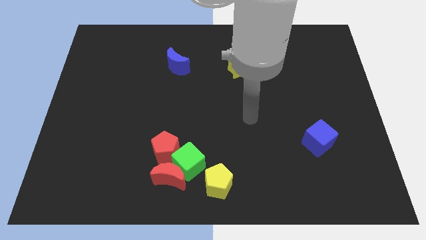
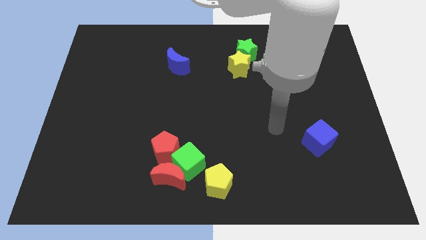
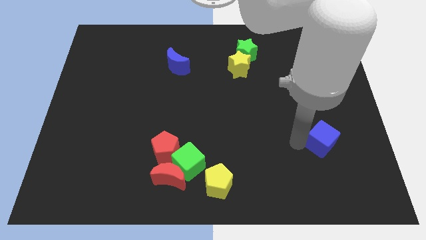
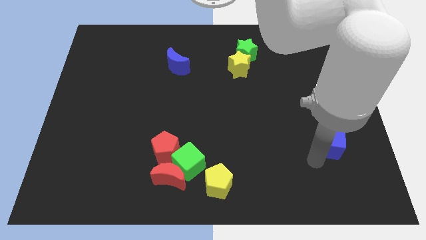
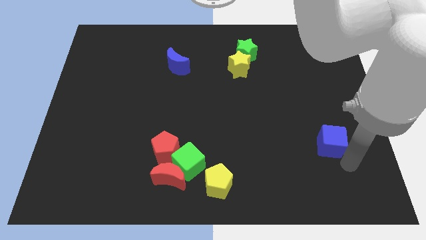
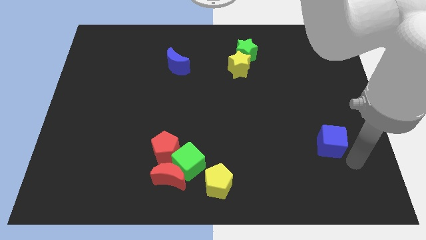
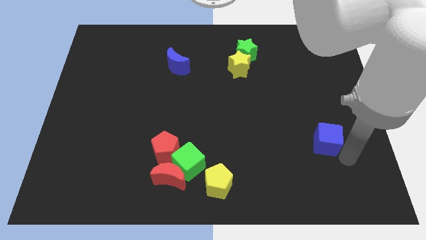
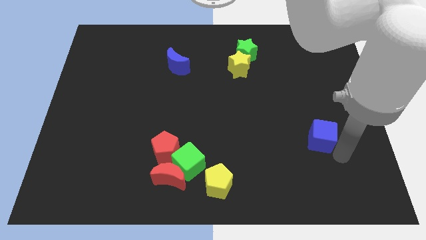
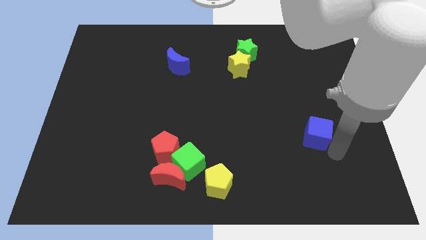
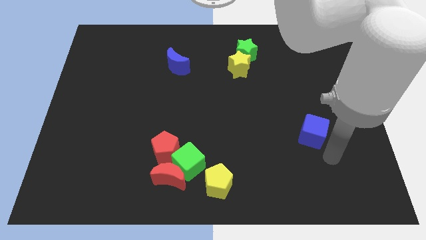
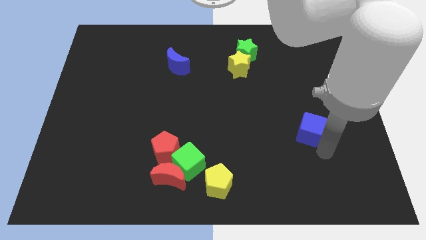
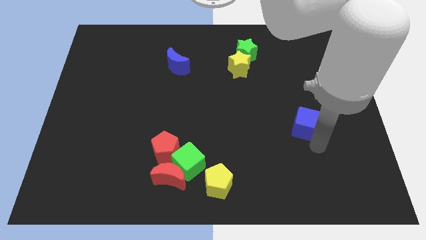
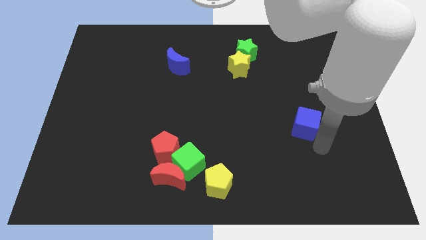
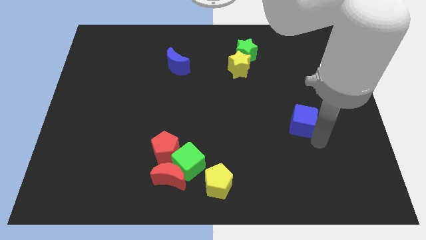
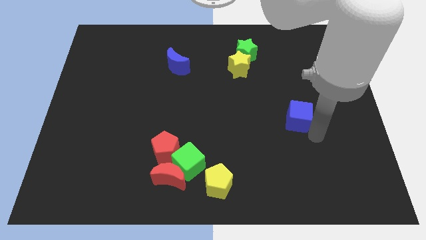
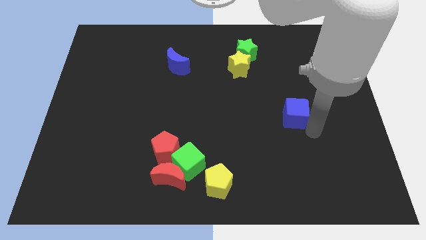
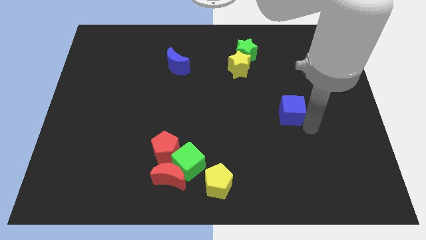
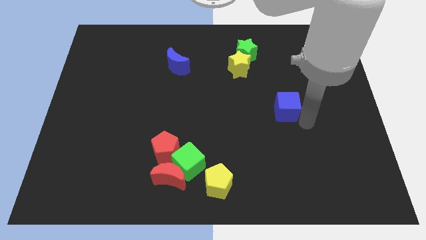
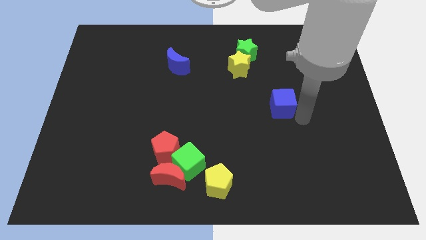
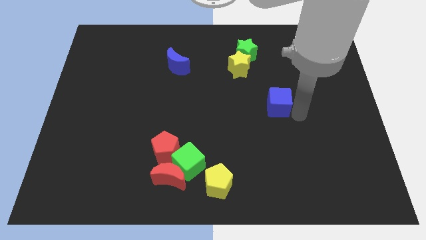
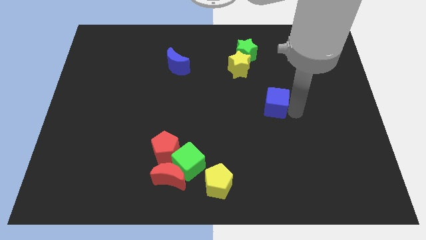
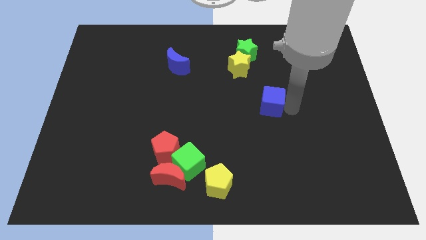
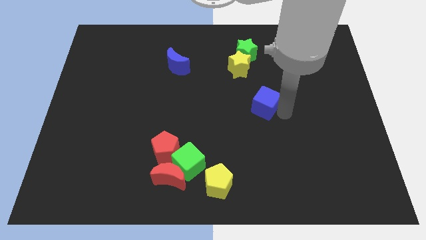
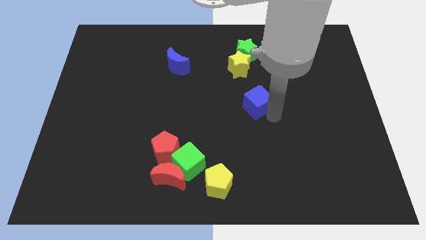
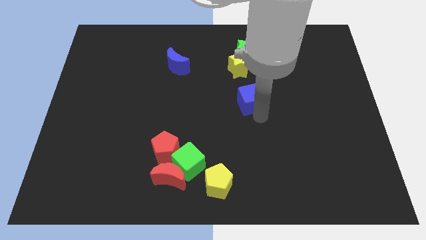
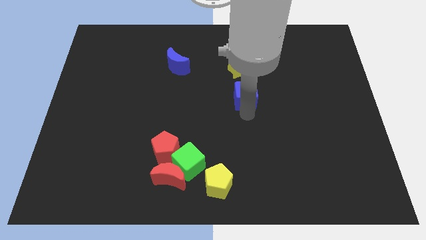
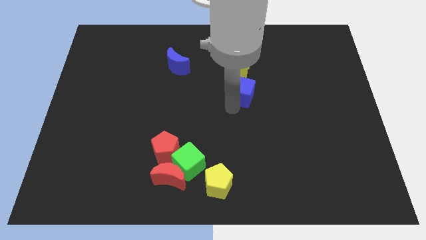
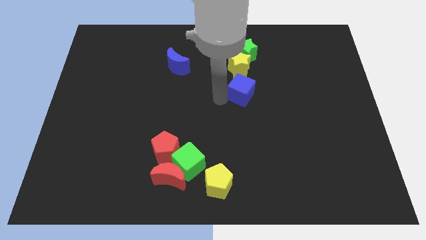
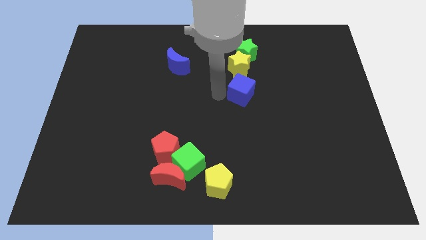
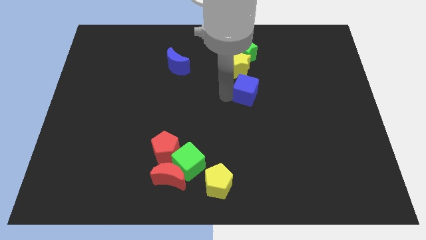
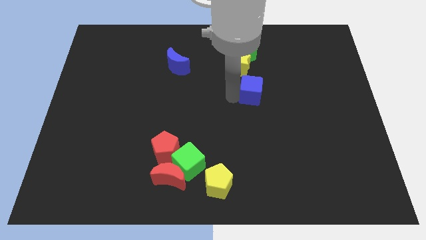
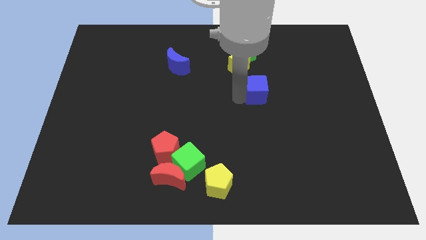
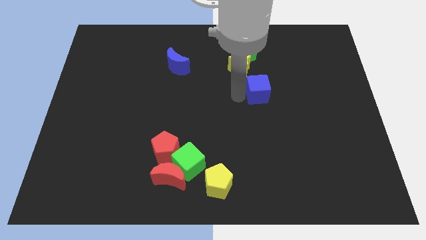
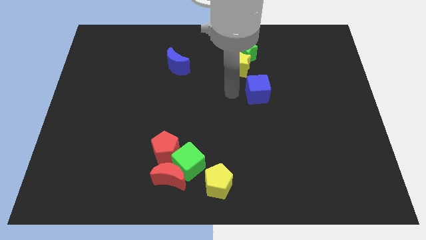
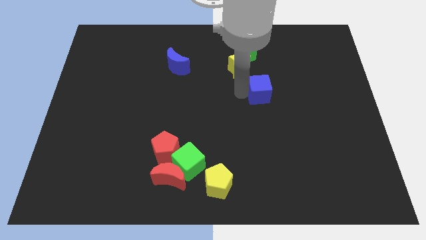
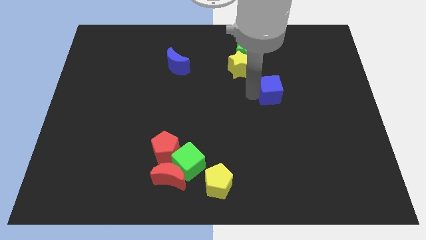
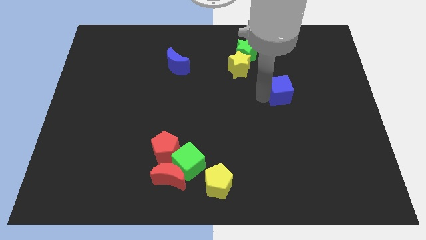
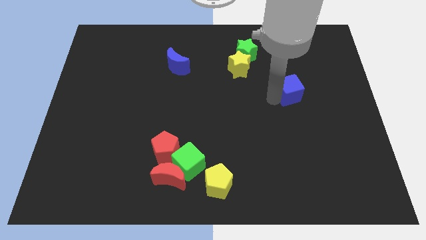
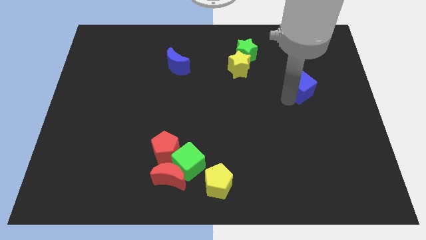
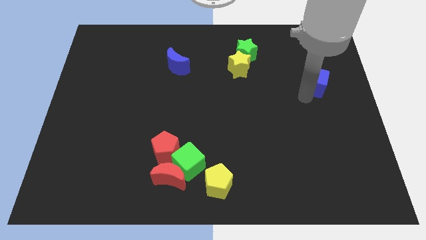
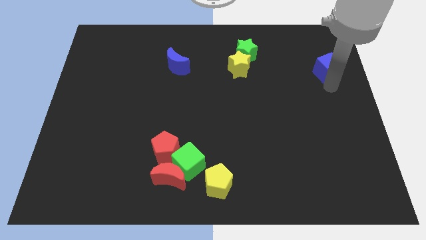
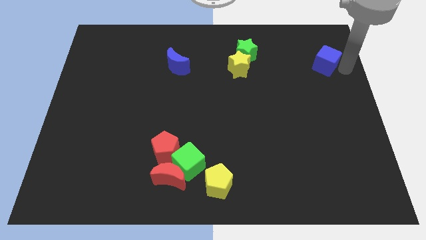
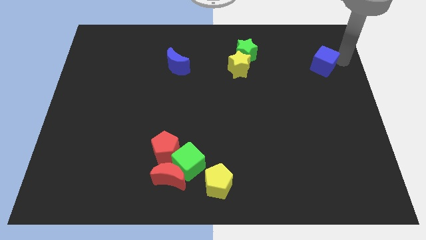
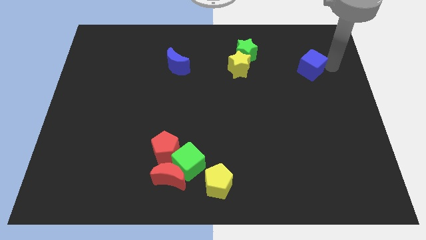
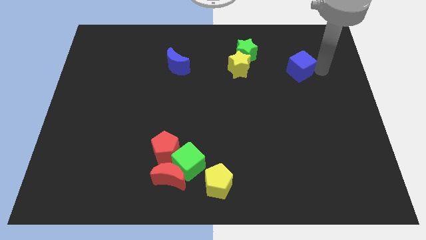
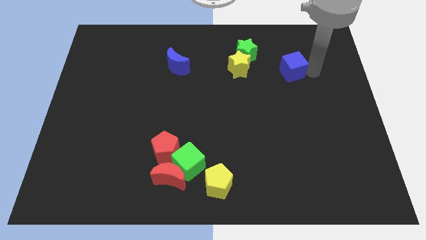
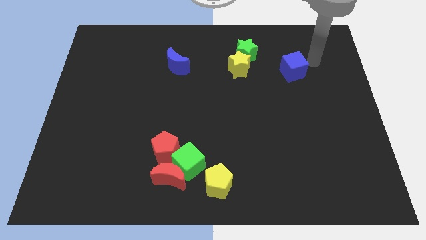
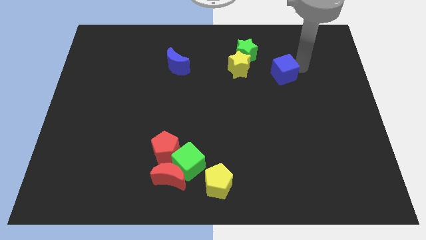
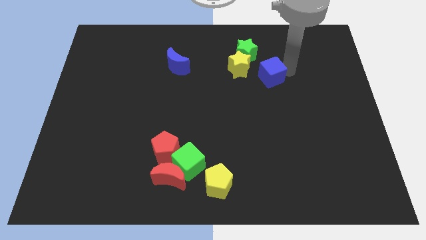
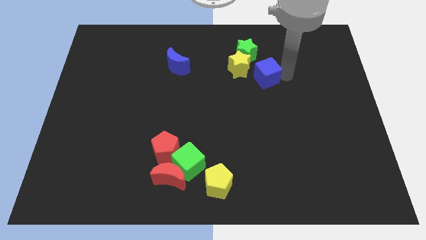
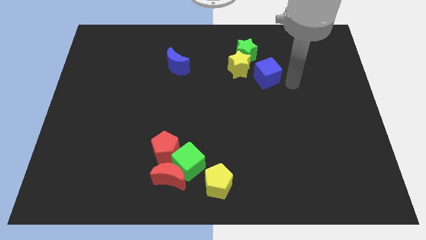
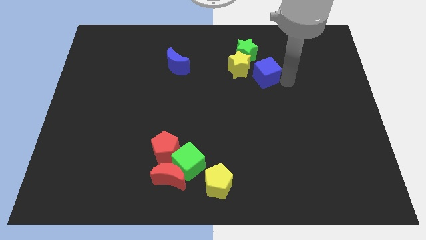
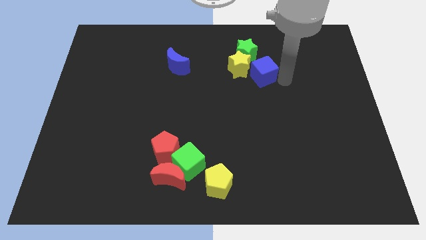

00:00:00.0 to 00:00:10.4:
put the blue cube next to the yellow star

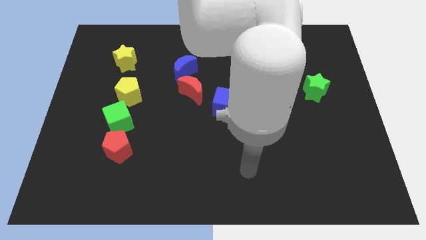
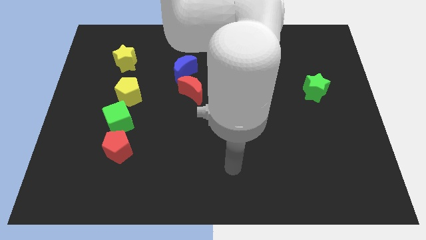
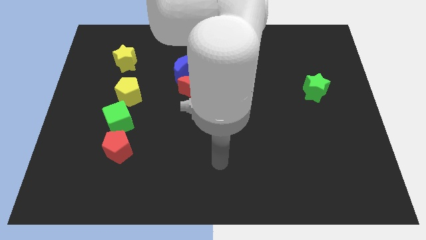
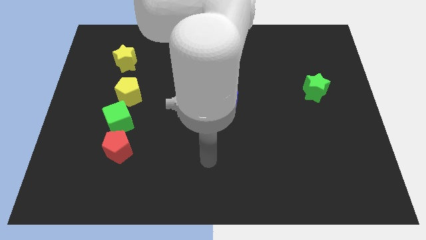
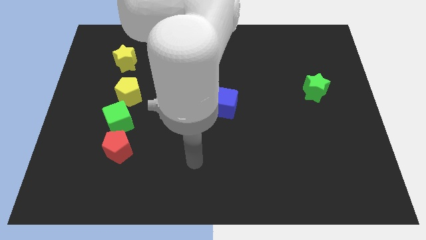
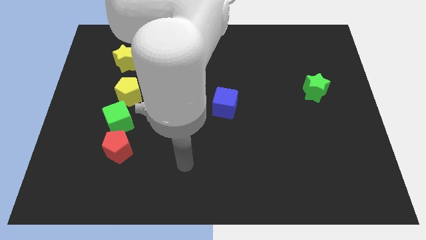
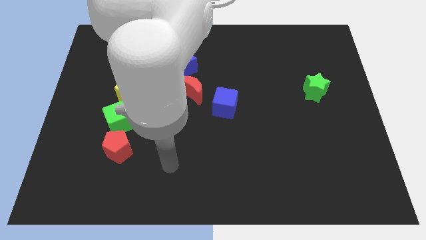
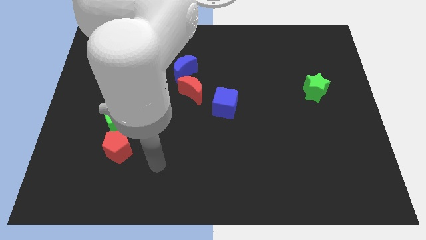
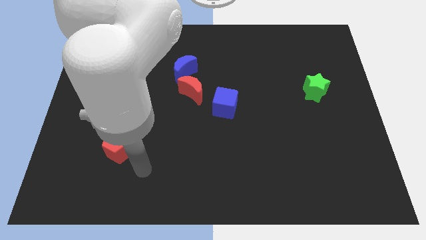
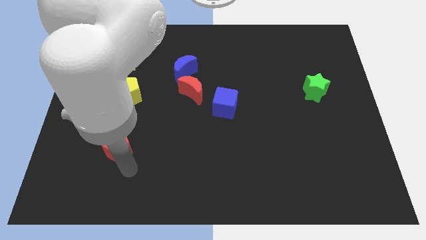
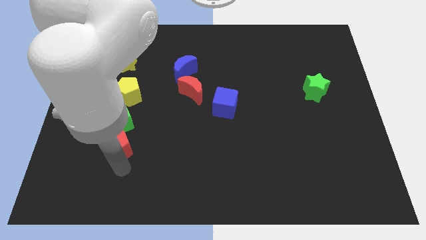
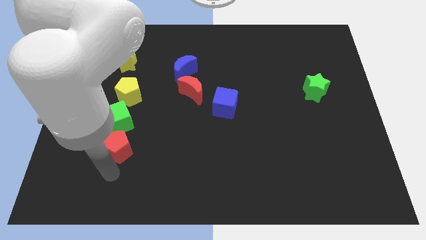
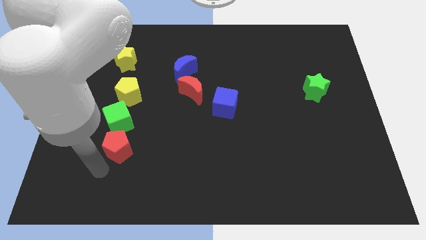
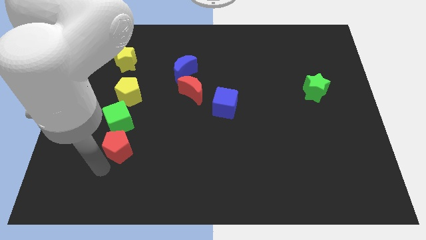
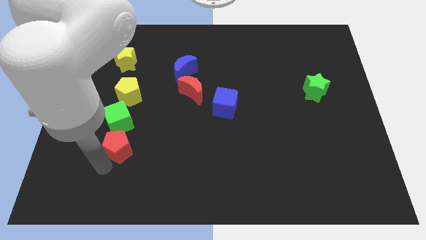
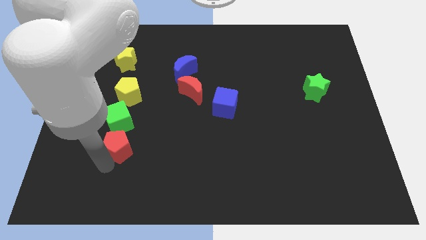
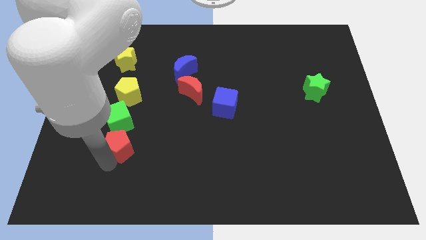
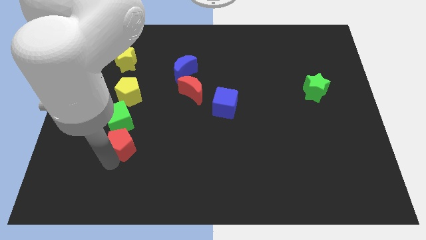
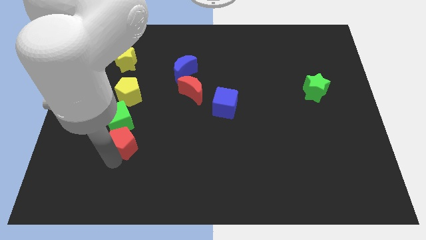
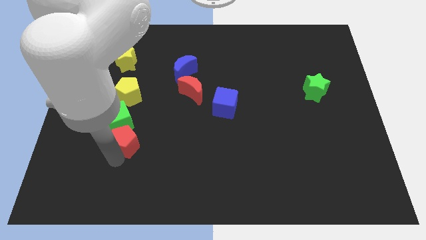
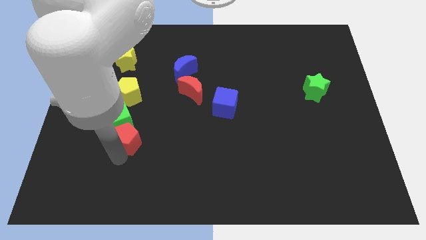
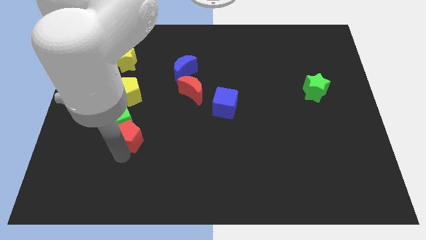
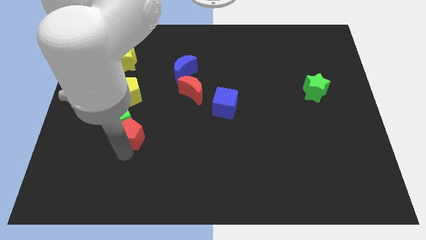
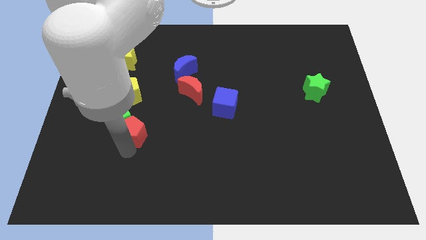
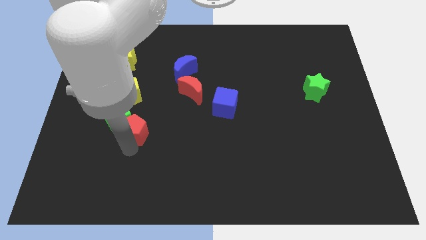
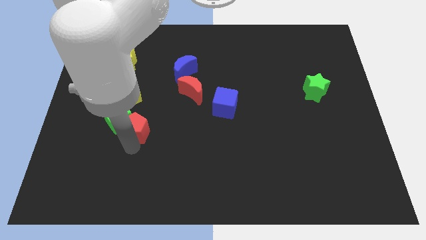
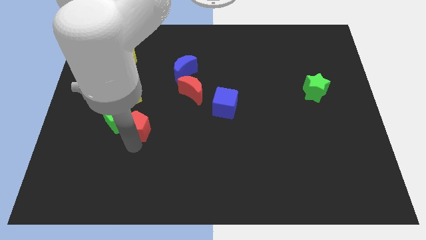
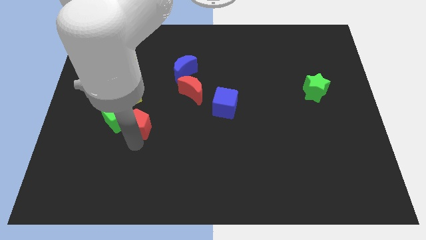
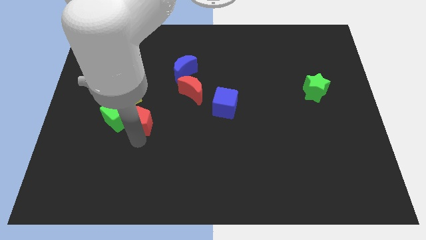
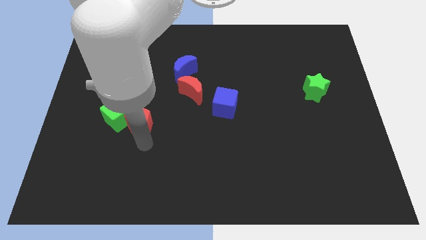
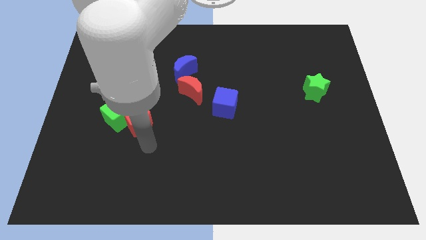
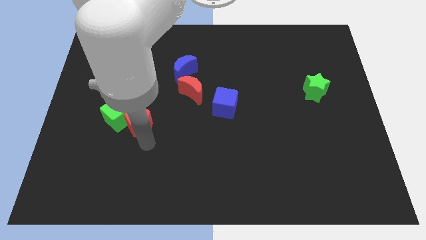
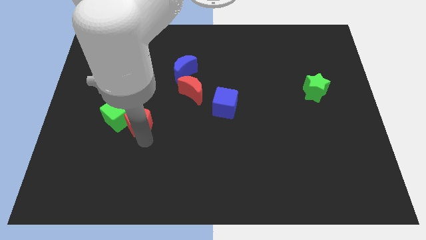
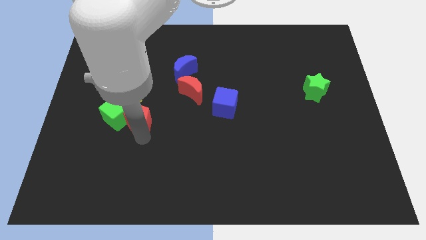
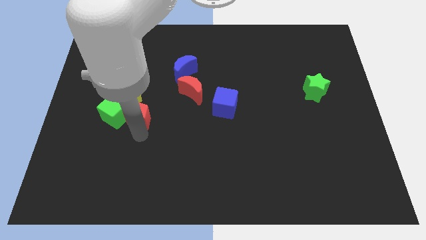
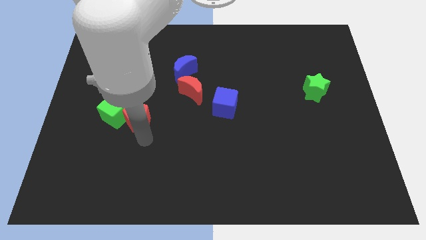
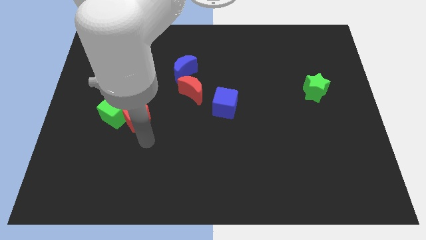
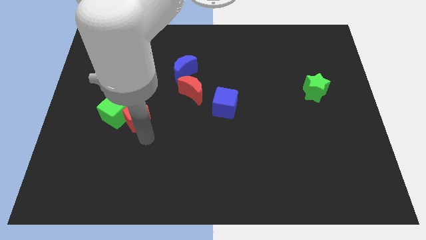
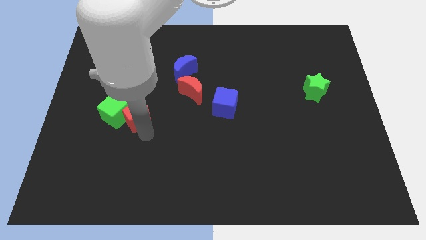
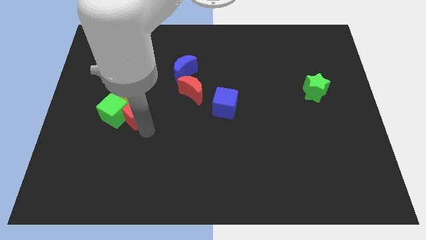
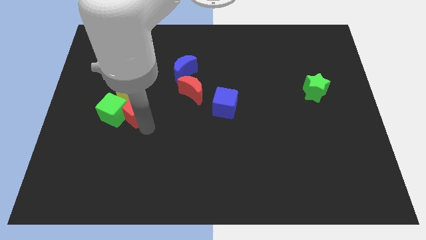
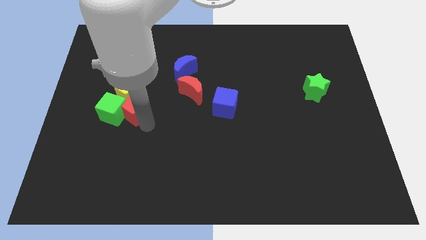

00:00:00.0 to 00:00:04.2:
move the red pentagon towards the yellow pentagon
